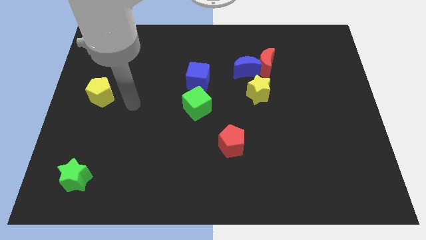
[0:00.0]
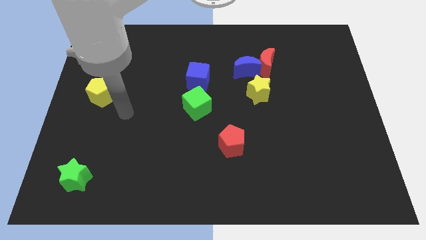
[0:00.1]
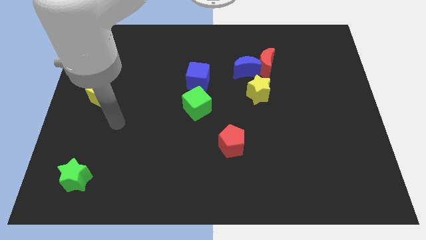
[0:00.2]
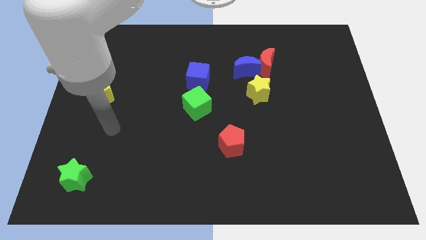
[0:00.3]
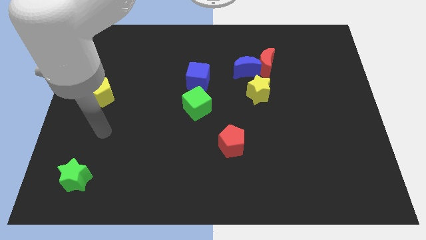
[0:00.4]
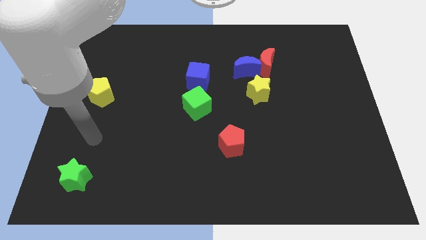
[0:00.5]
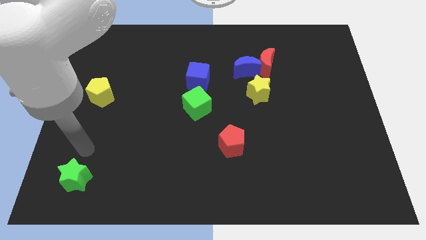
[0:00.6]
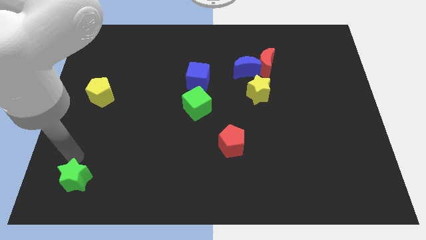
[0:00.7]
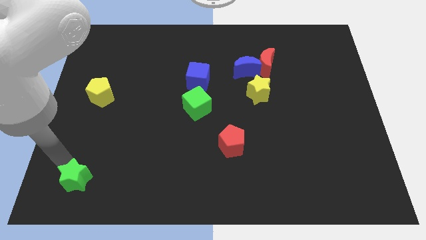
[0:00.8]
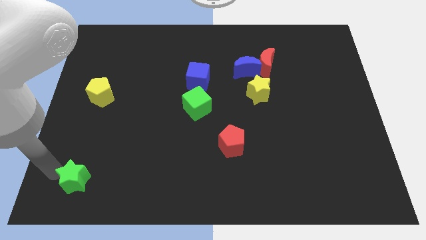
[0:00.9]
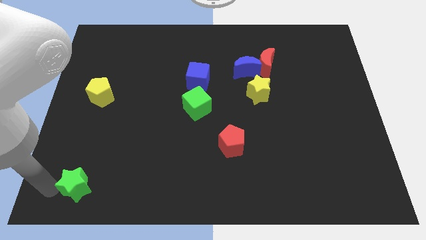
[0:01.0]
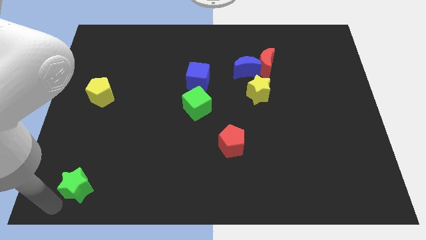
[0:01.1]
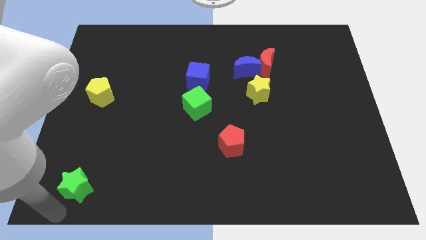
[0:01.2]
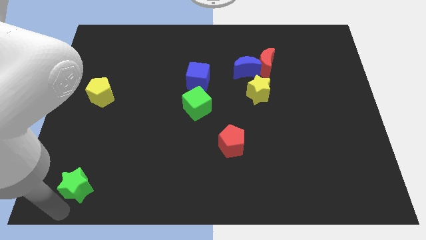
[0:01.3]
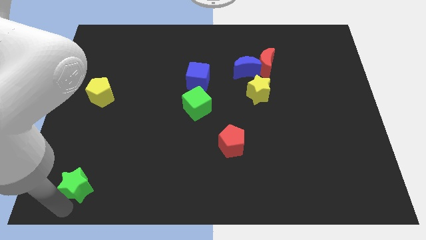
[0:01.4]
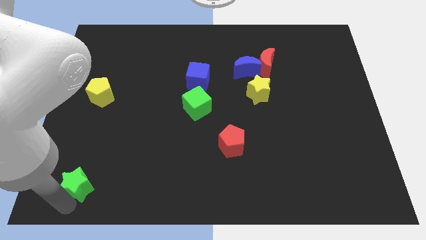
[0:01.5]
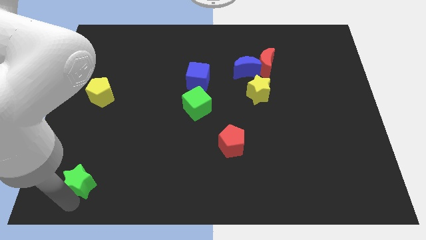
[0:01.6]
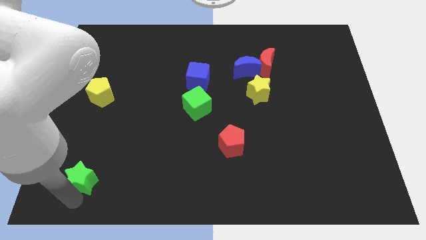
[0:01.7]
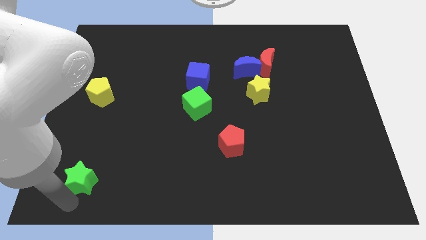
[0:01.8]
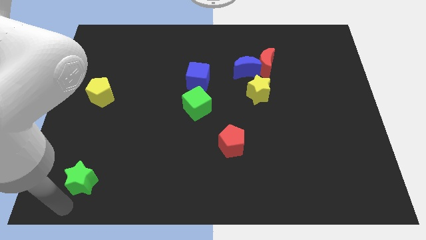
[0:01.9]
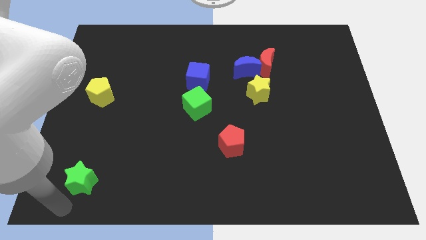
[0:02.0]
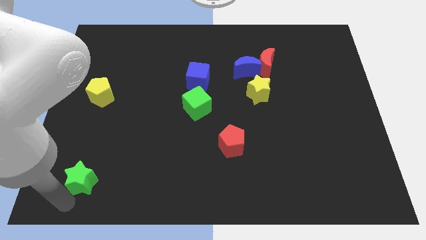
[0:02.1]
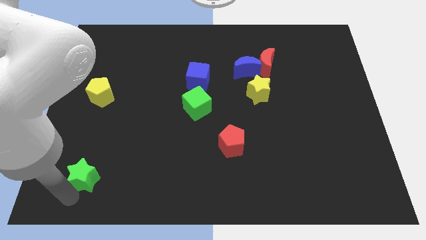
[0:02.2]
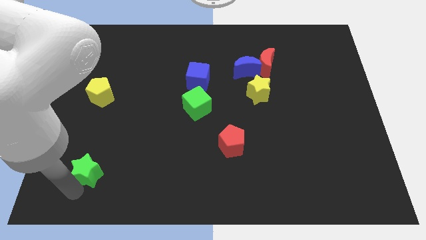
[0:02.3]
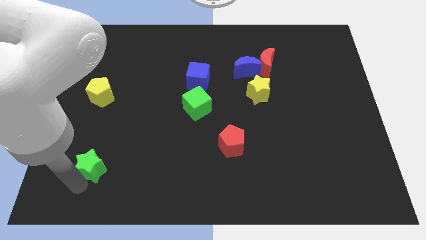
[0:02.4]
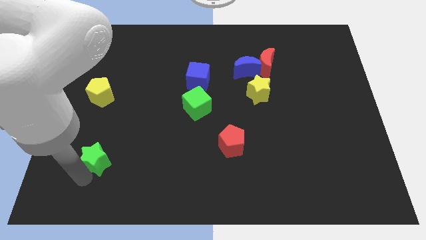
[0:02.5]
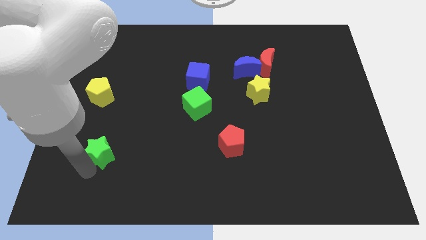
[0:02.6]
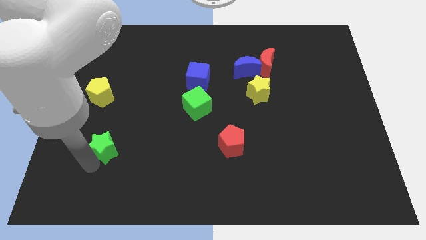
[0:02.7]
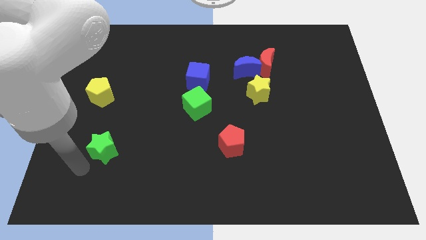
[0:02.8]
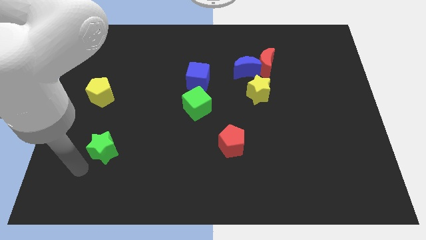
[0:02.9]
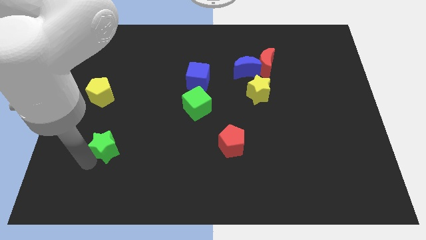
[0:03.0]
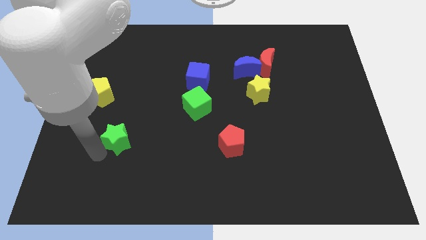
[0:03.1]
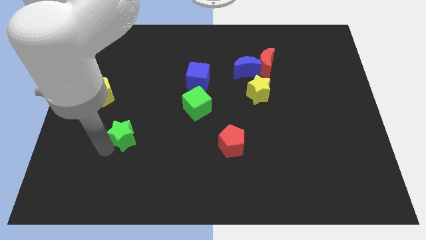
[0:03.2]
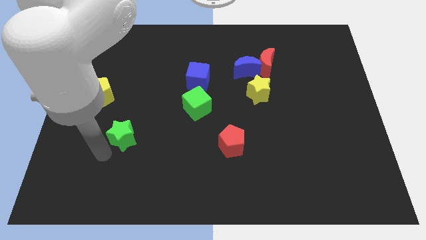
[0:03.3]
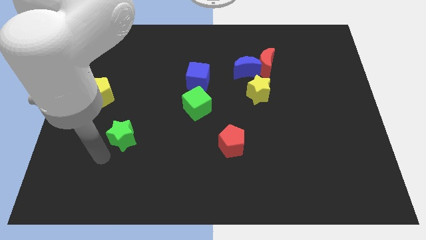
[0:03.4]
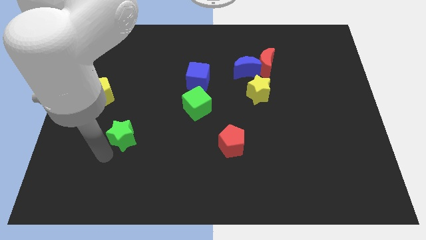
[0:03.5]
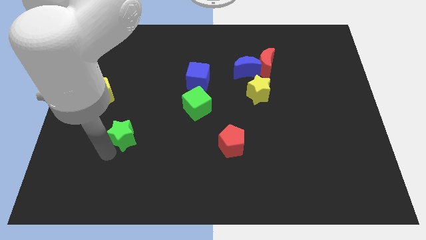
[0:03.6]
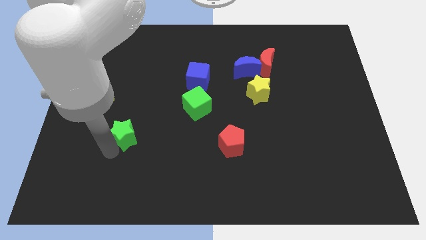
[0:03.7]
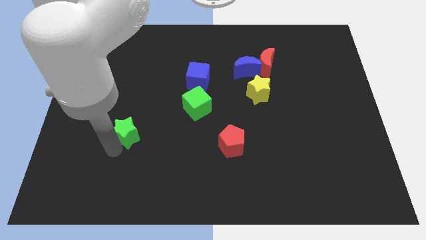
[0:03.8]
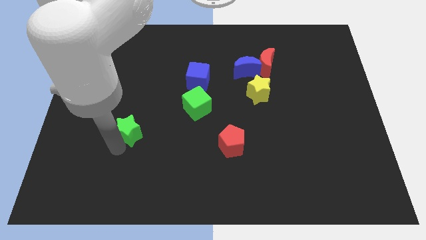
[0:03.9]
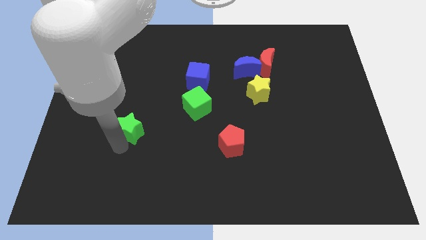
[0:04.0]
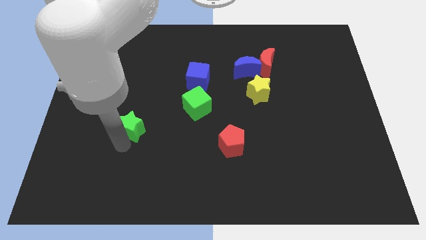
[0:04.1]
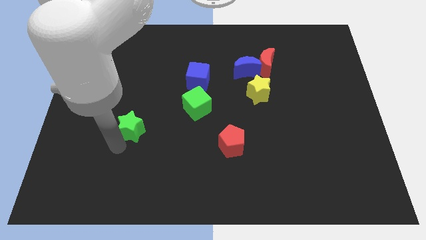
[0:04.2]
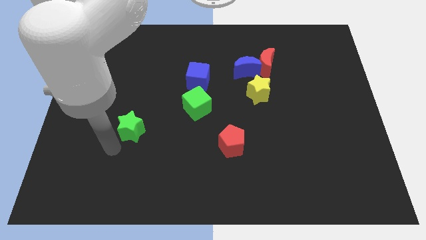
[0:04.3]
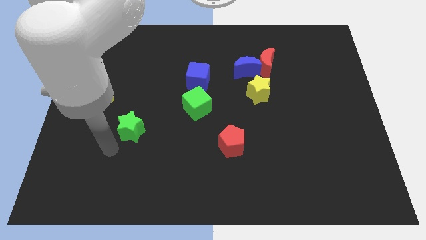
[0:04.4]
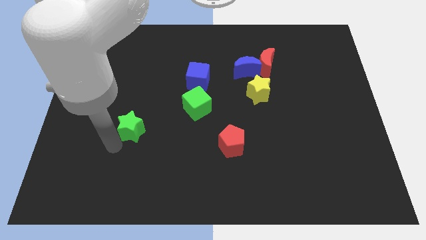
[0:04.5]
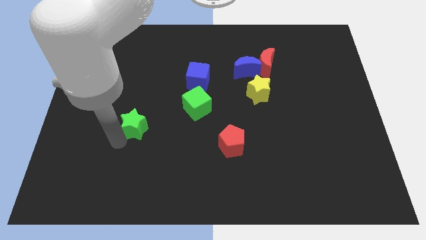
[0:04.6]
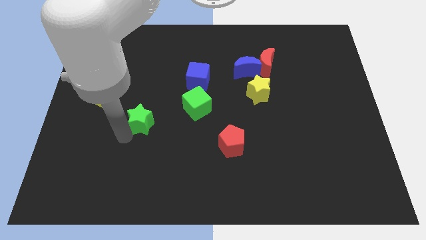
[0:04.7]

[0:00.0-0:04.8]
push the green star just left of the green cube

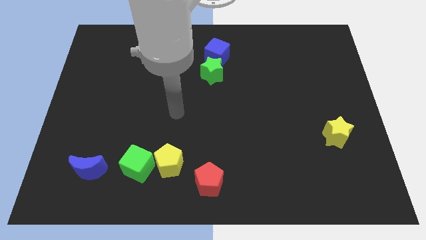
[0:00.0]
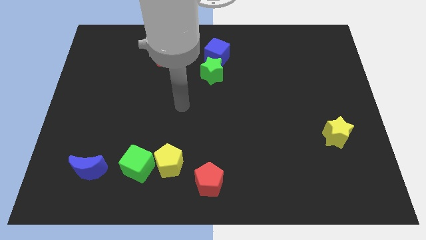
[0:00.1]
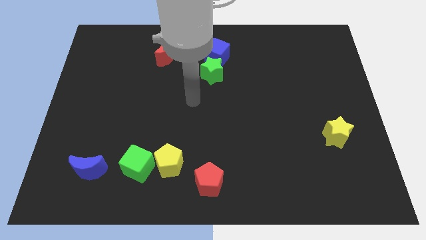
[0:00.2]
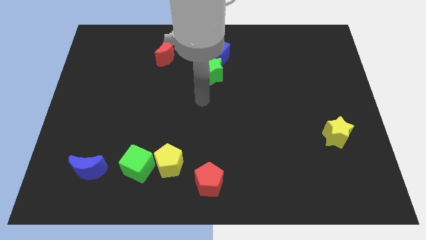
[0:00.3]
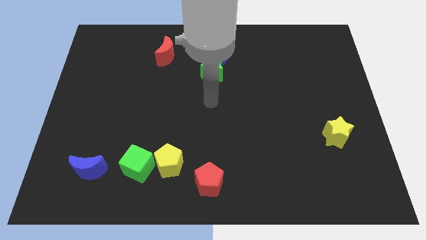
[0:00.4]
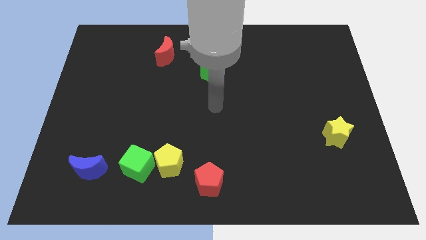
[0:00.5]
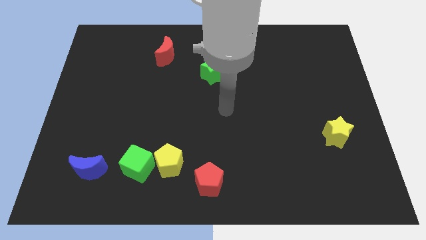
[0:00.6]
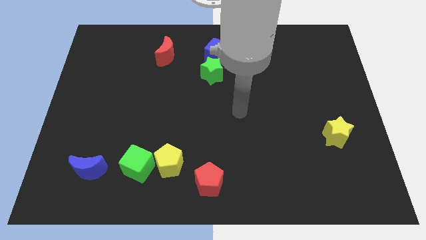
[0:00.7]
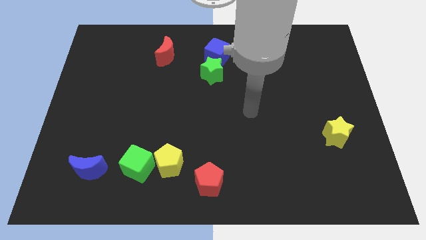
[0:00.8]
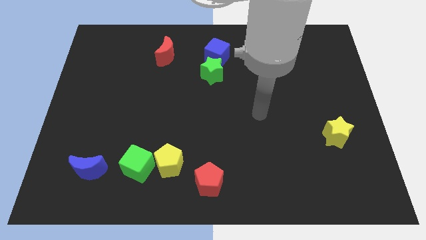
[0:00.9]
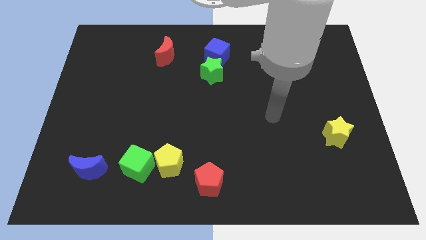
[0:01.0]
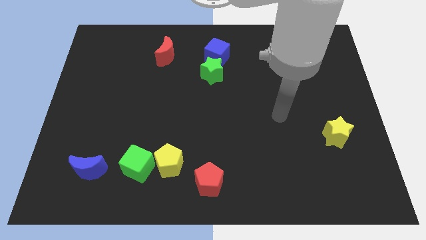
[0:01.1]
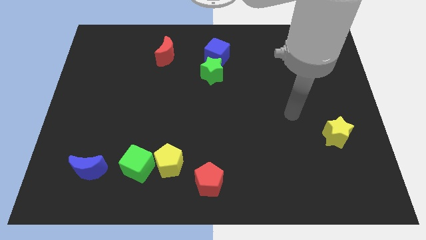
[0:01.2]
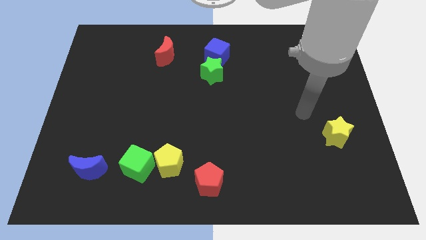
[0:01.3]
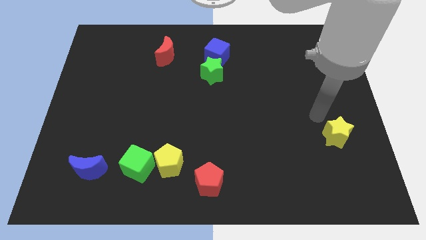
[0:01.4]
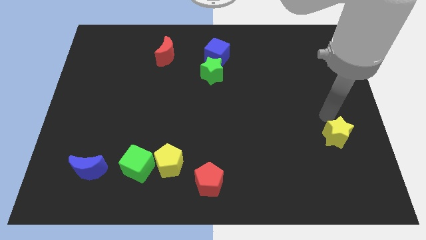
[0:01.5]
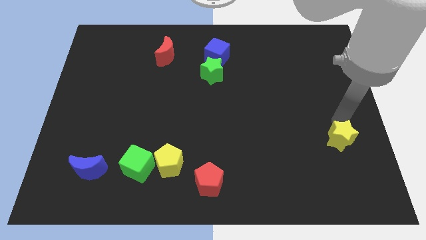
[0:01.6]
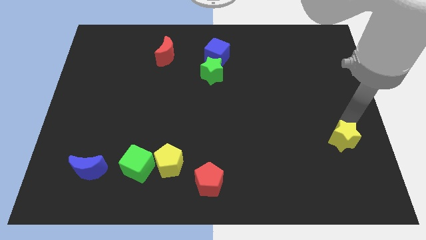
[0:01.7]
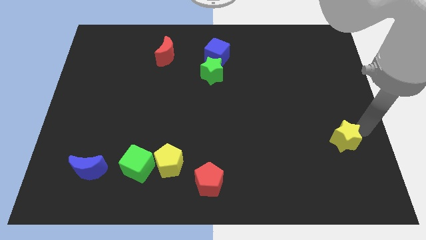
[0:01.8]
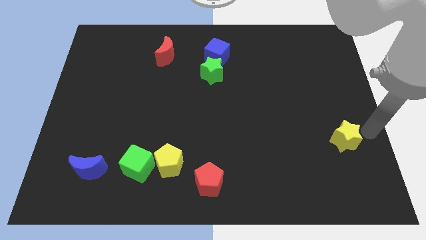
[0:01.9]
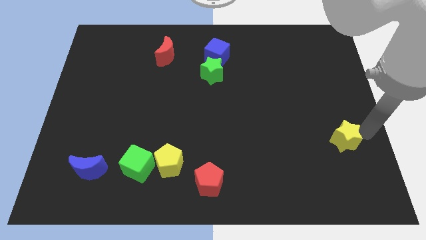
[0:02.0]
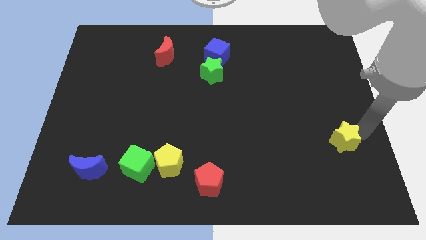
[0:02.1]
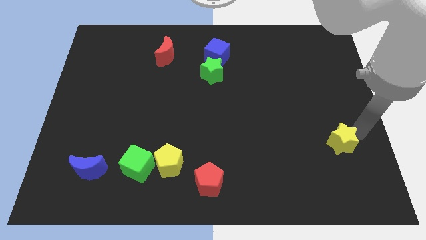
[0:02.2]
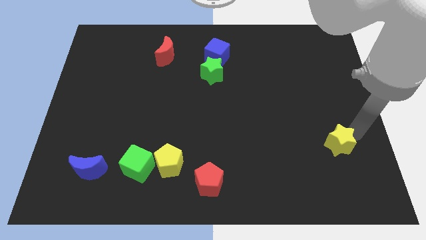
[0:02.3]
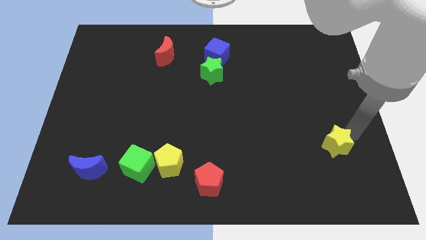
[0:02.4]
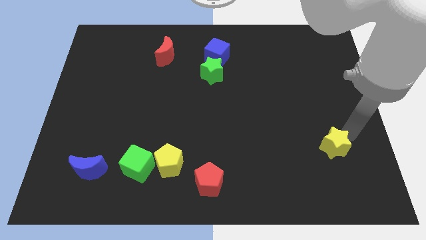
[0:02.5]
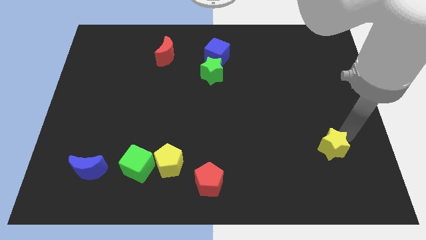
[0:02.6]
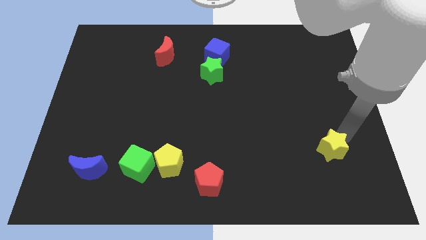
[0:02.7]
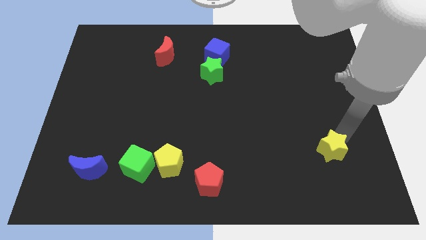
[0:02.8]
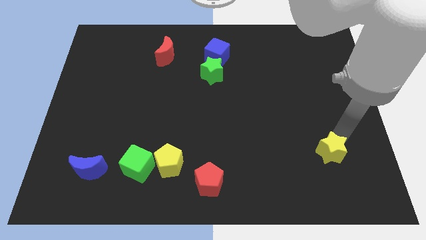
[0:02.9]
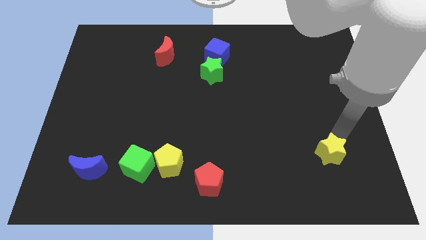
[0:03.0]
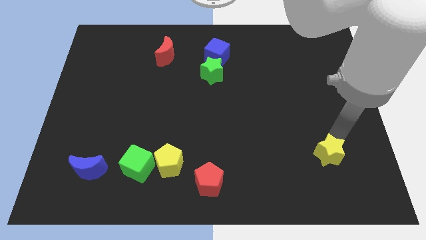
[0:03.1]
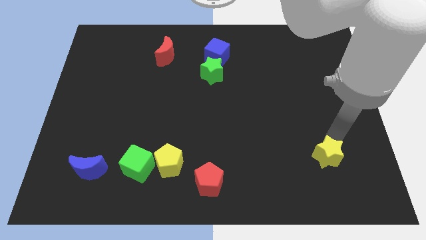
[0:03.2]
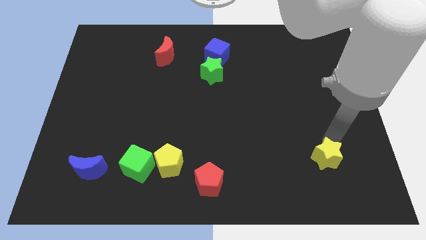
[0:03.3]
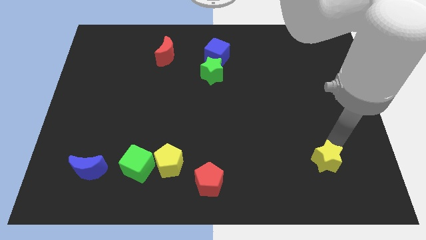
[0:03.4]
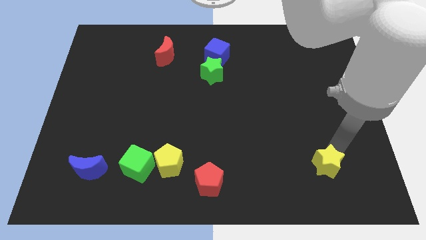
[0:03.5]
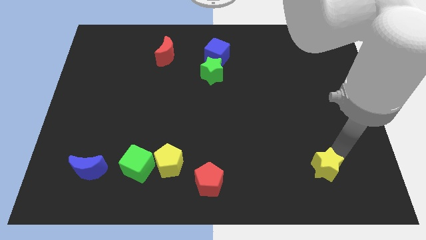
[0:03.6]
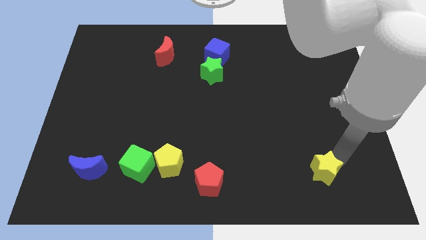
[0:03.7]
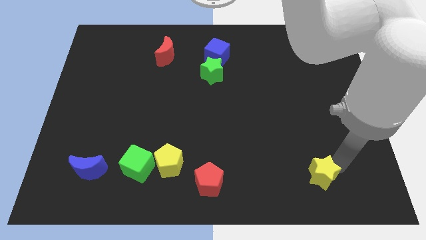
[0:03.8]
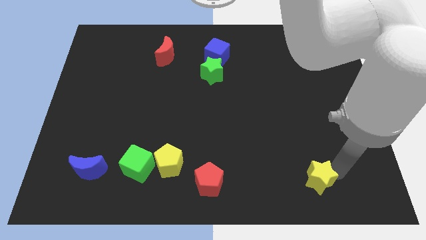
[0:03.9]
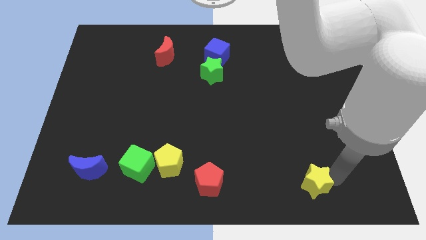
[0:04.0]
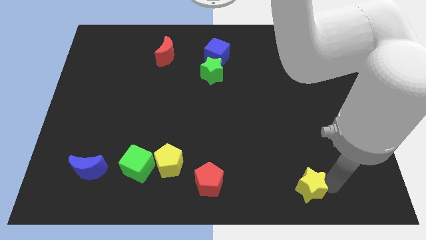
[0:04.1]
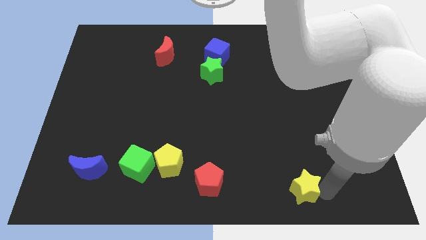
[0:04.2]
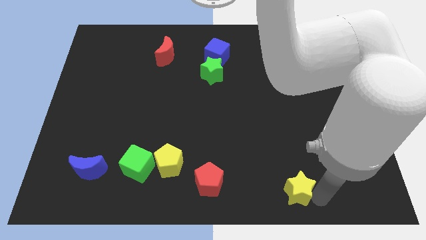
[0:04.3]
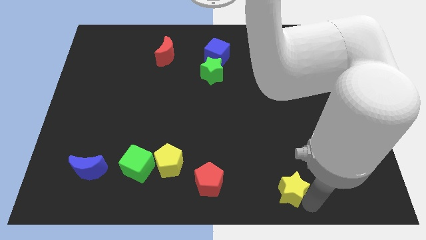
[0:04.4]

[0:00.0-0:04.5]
put the yellow star just right of the red pentagon
